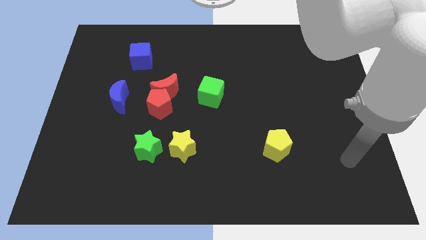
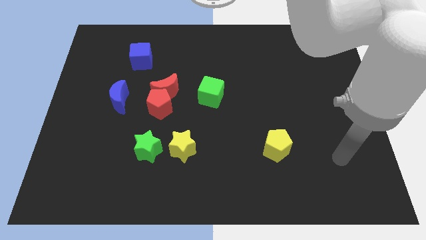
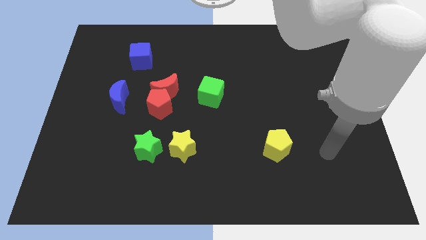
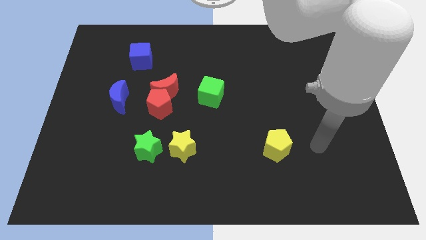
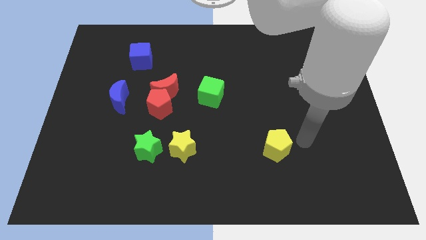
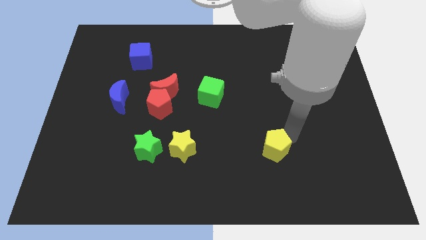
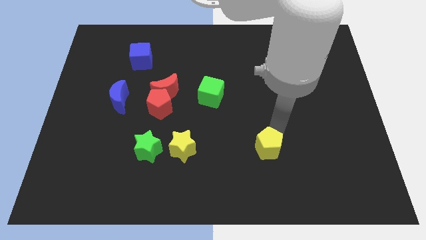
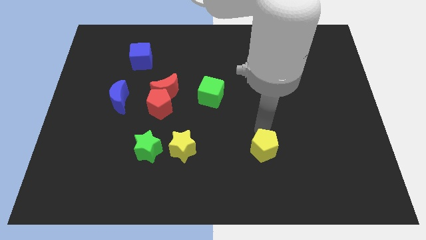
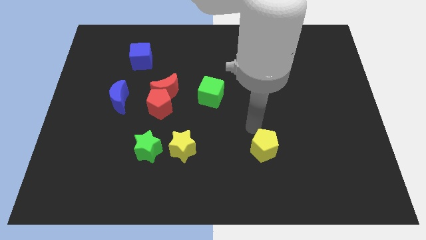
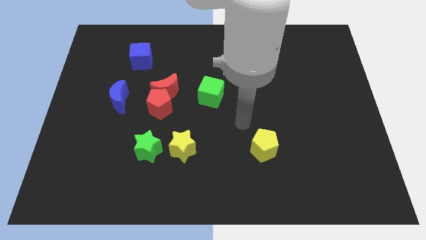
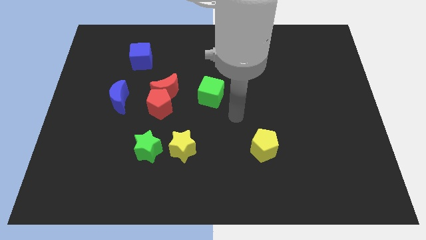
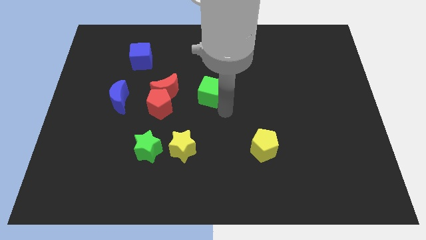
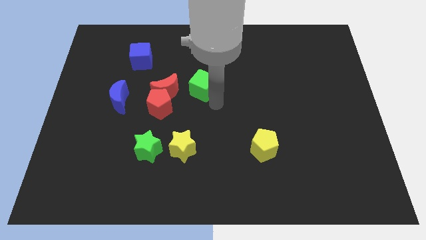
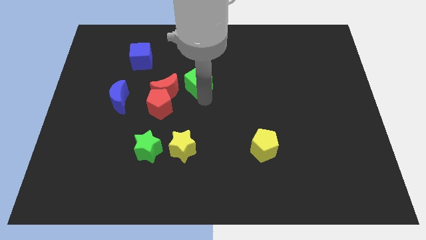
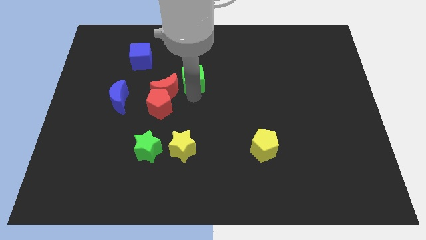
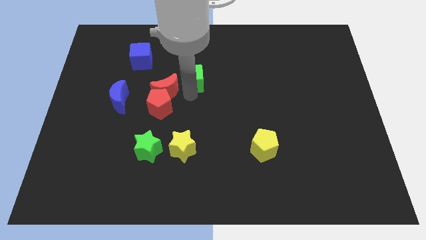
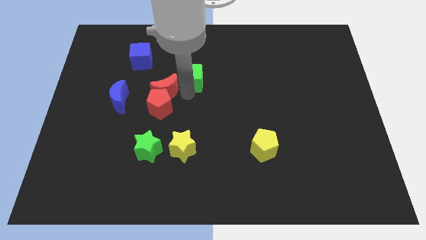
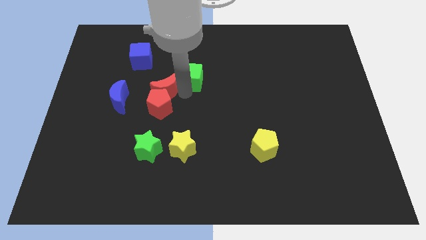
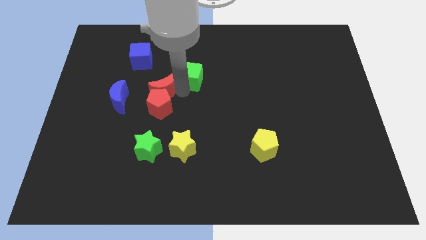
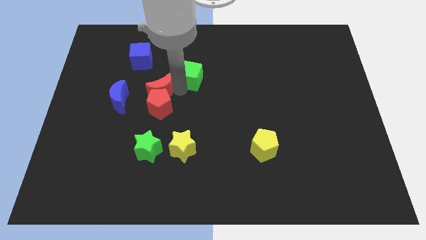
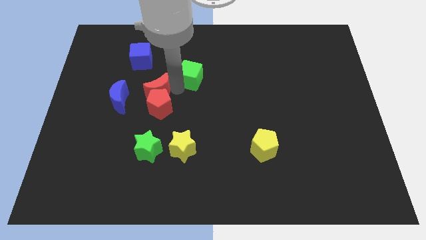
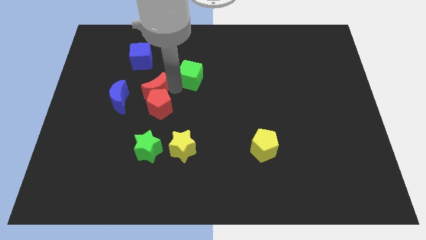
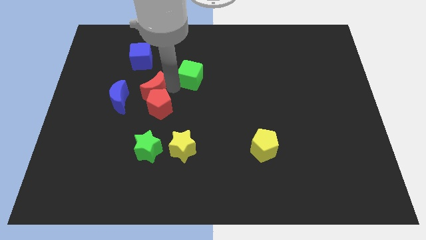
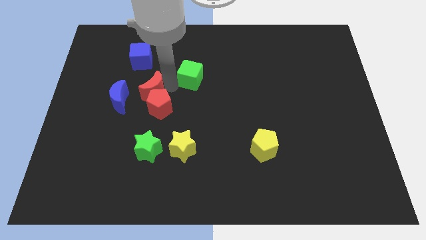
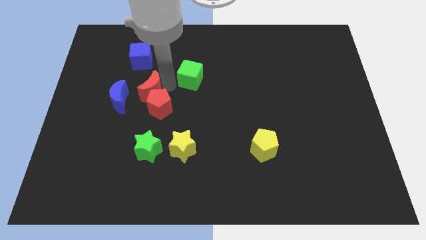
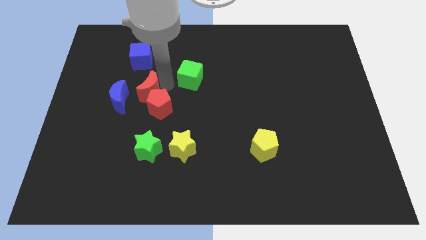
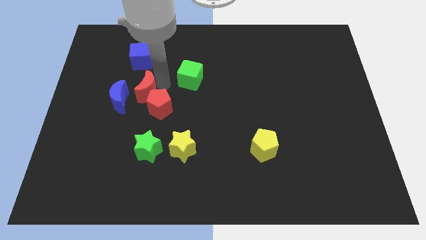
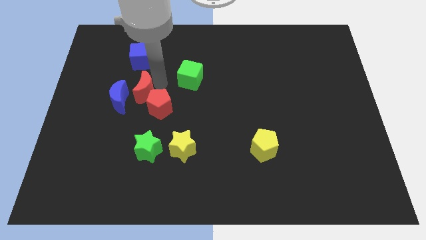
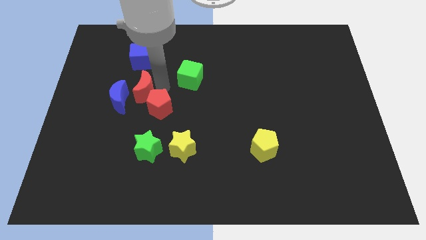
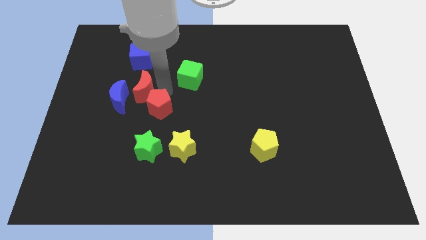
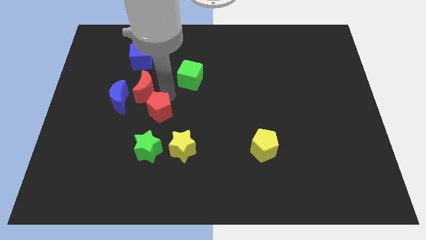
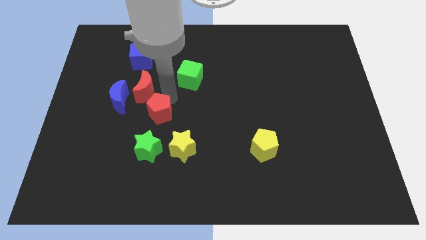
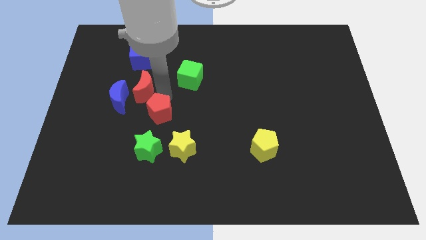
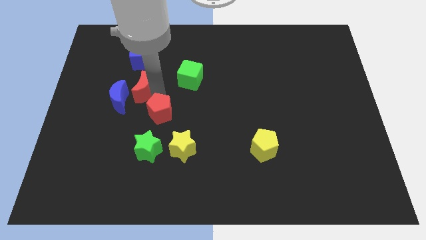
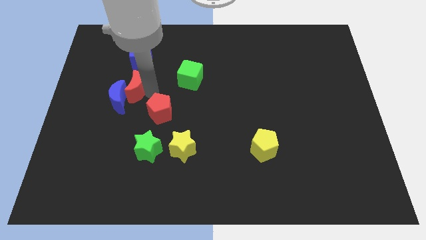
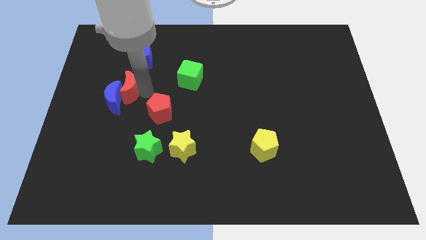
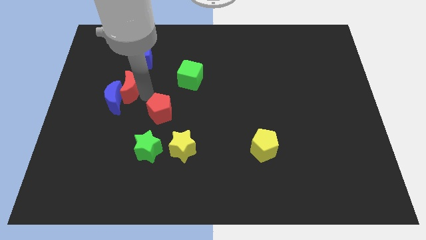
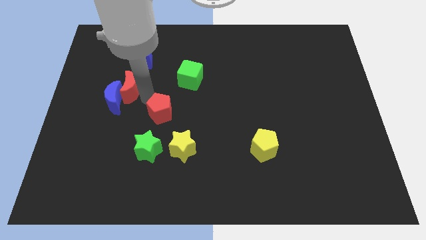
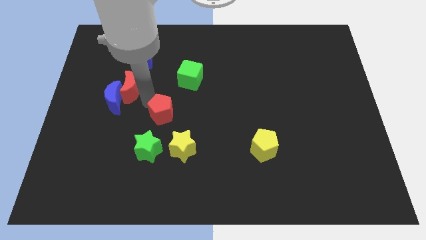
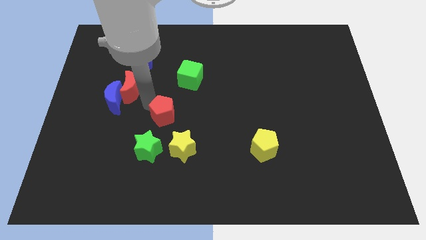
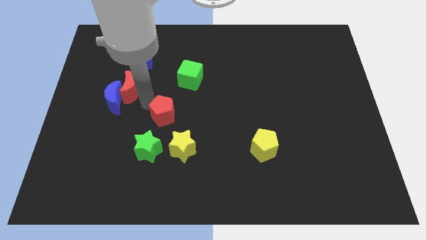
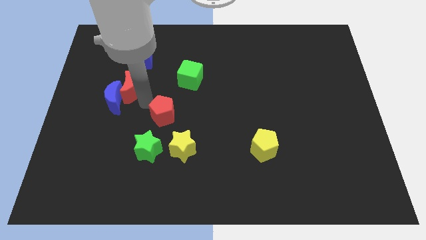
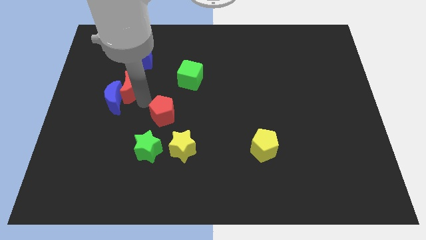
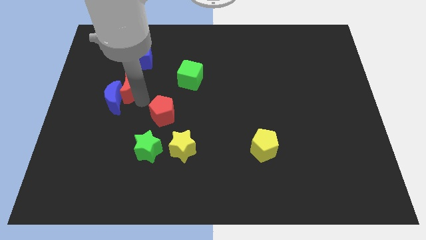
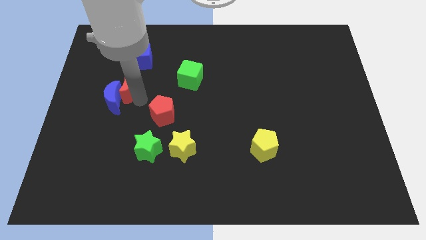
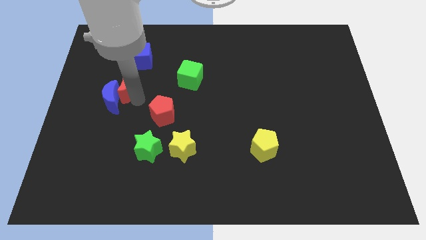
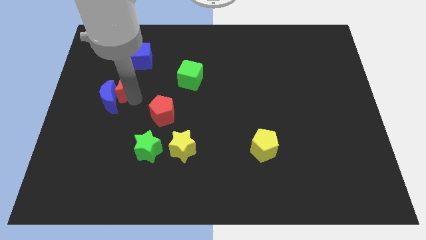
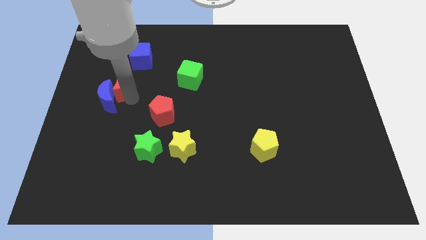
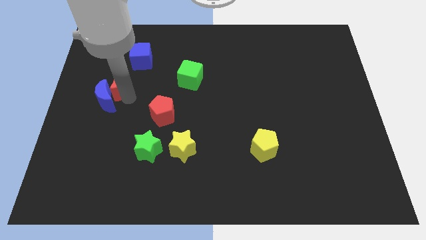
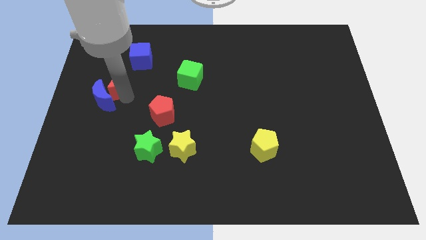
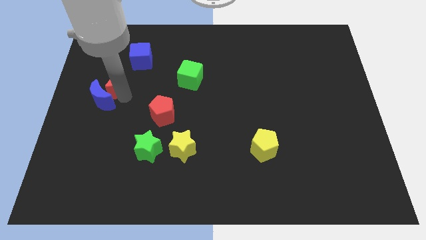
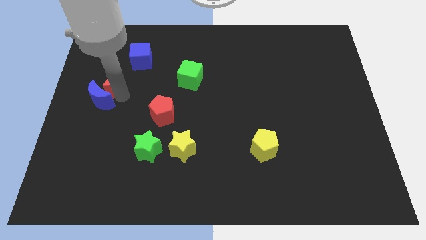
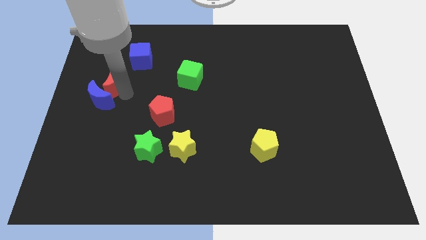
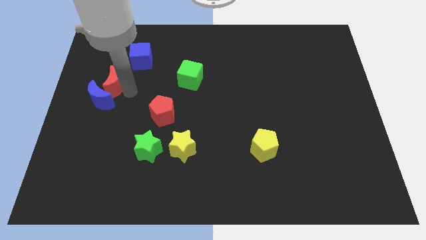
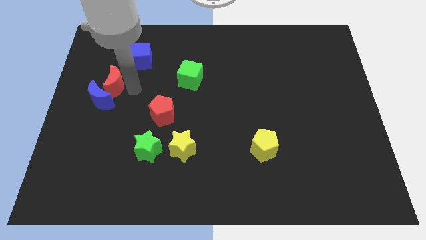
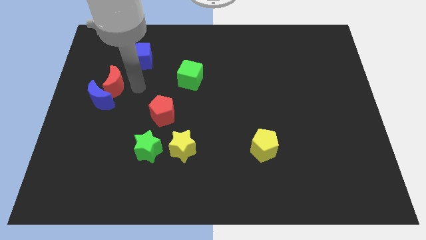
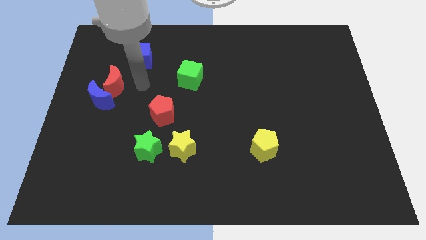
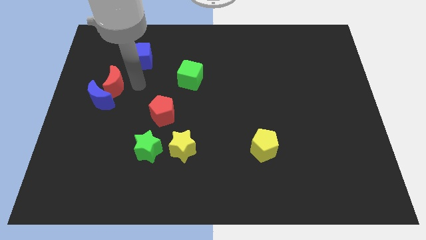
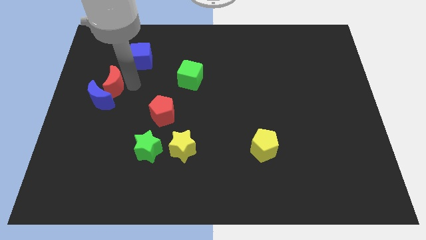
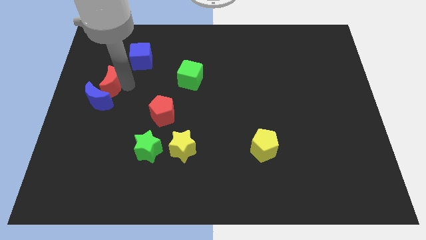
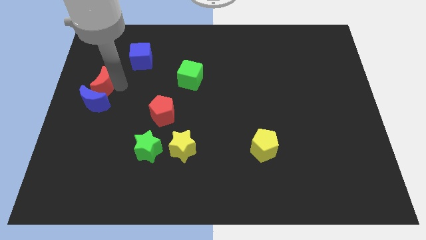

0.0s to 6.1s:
slide the red moon to the center left

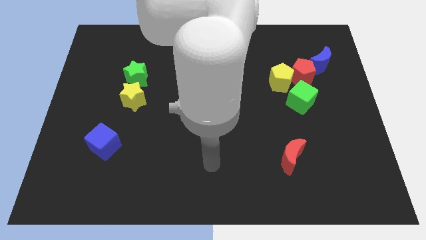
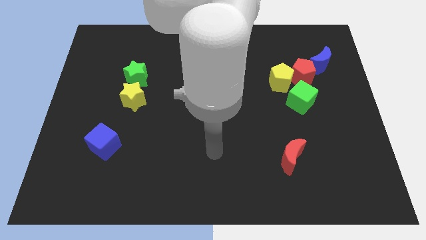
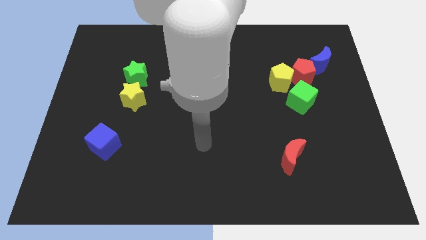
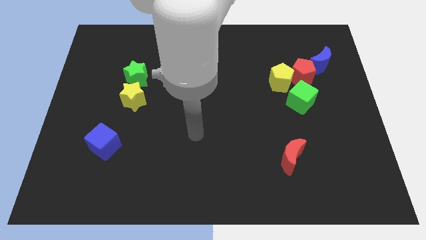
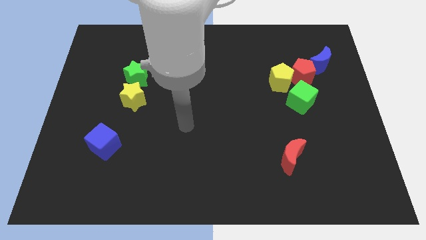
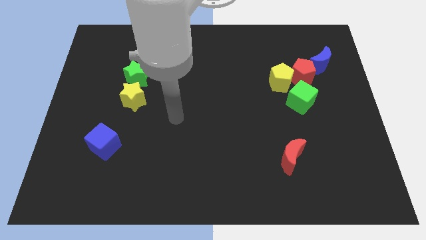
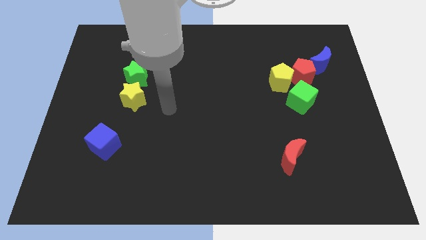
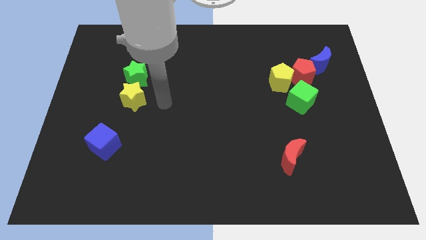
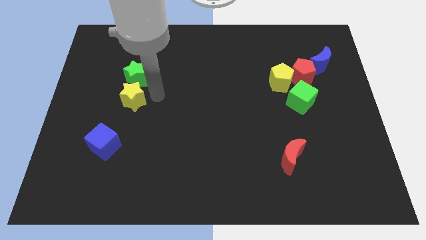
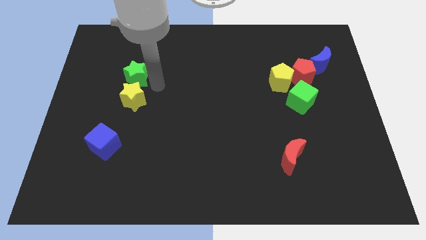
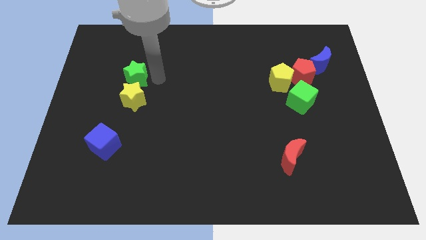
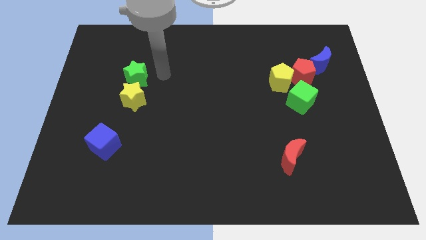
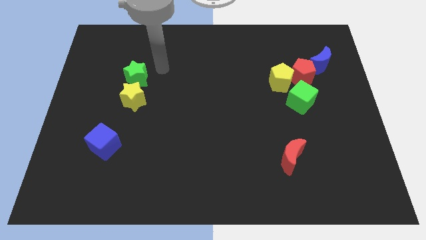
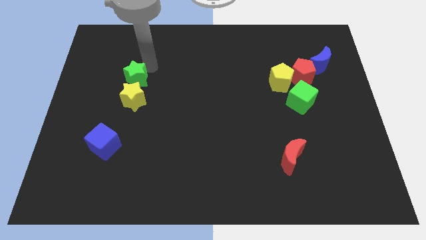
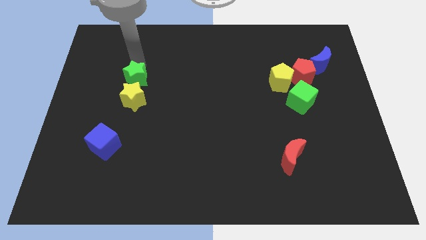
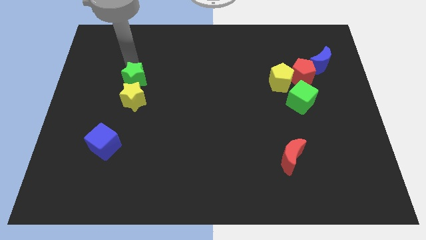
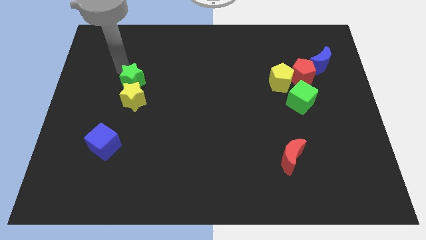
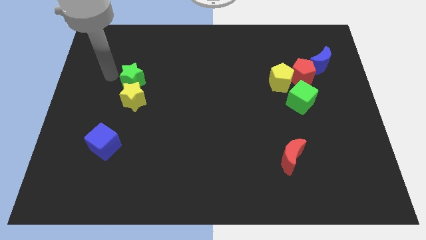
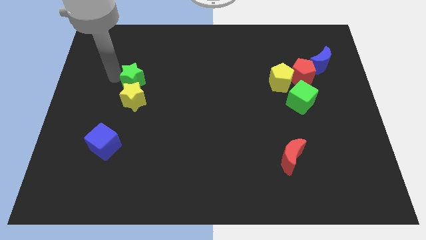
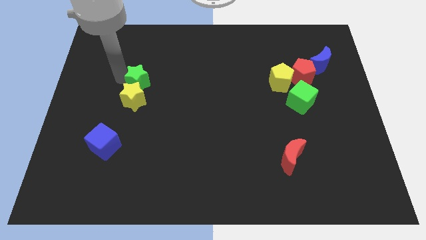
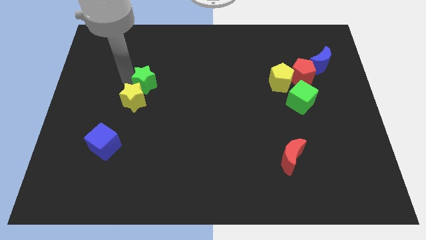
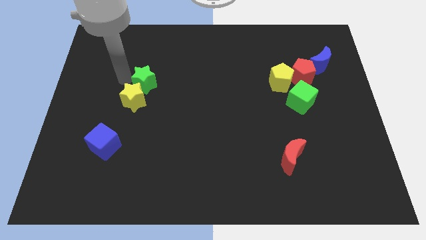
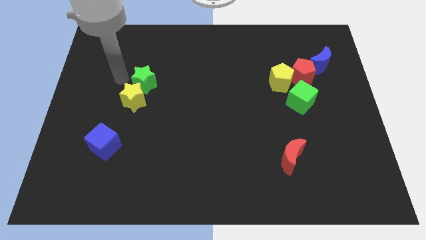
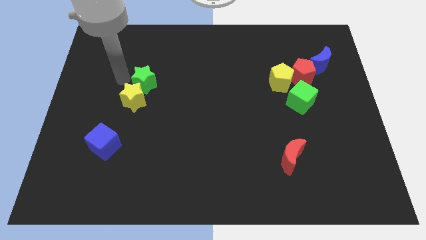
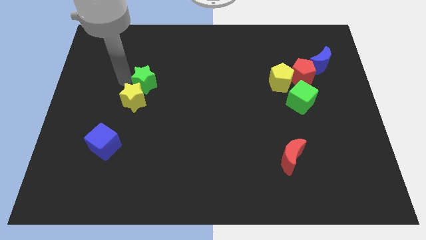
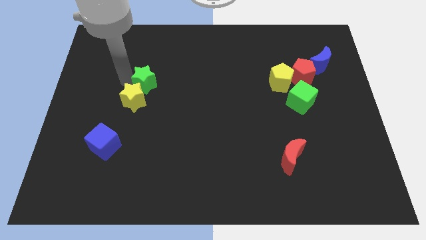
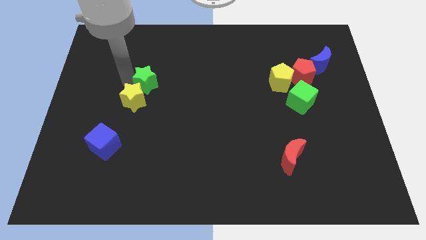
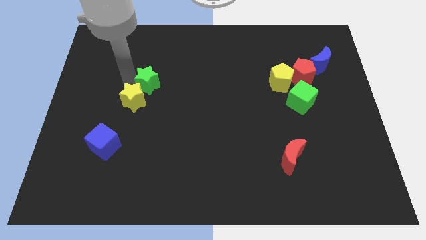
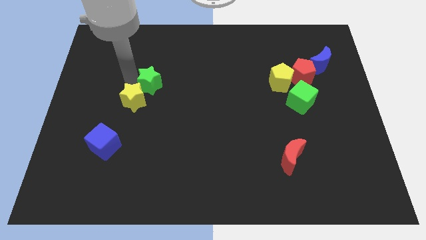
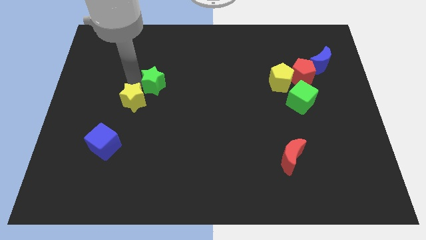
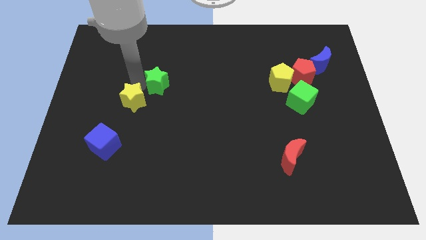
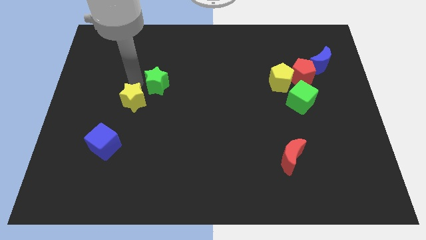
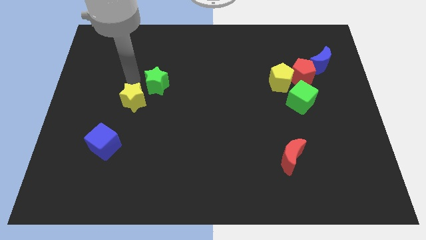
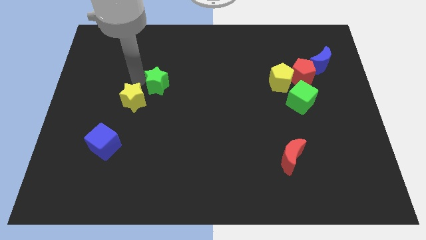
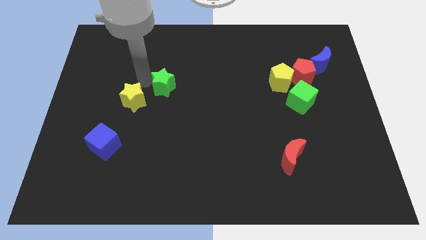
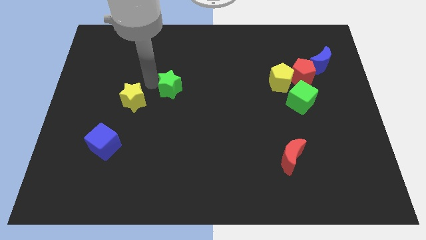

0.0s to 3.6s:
slide the green star to the center
